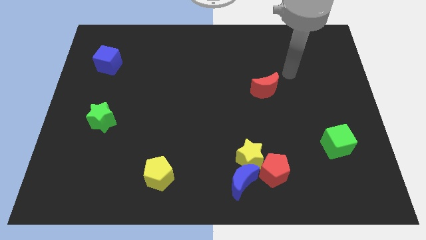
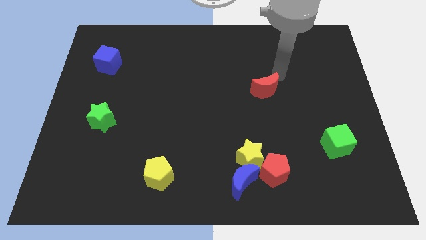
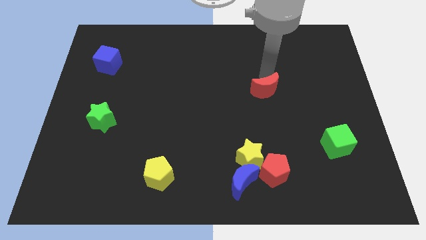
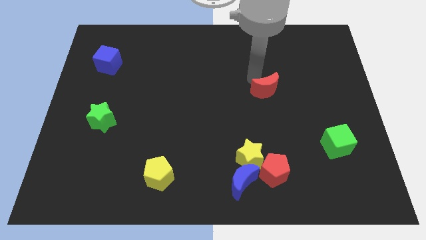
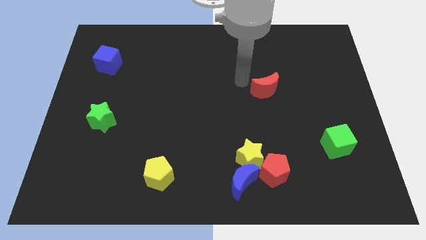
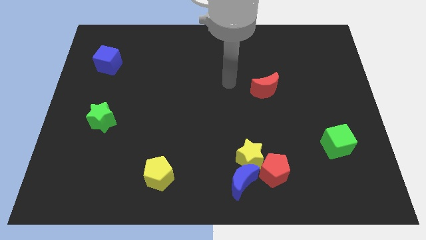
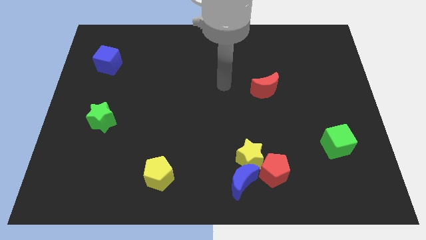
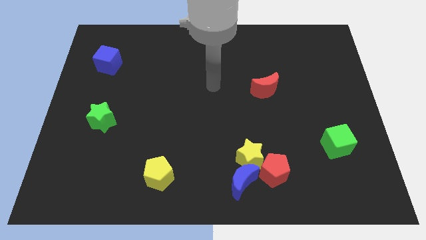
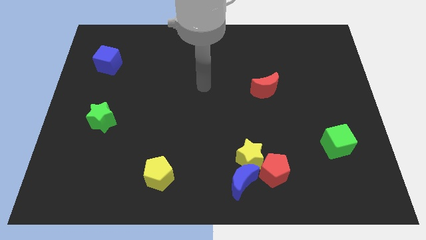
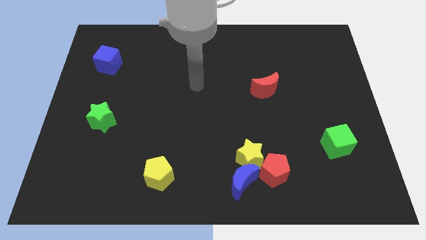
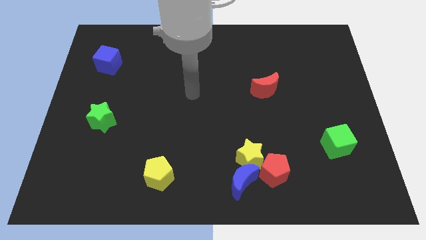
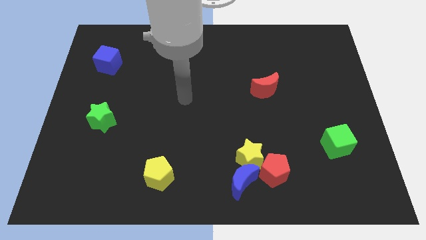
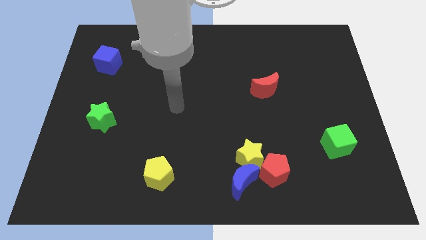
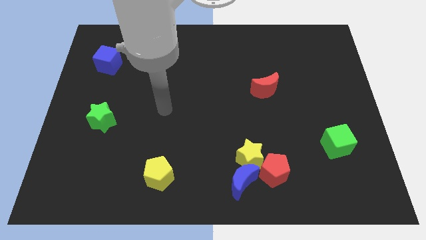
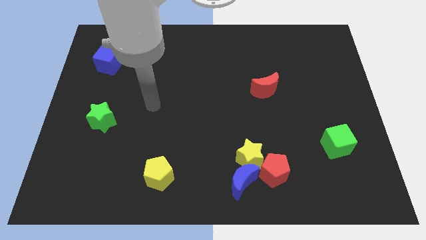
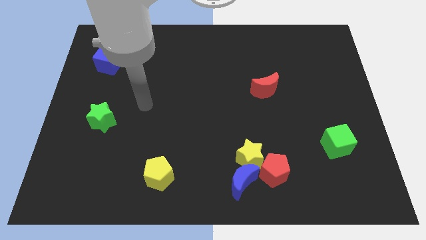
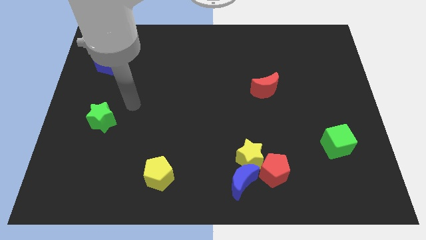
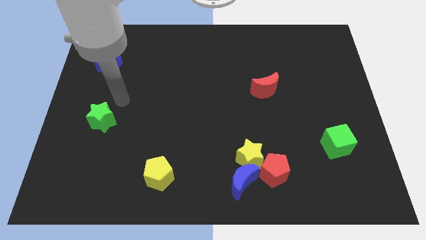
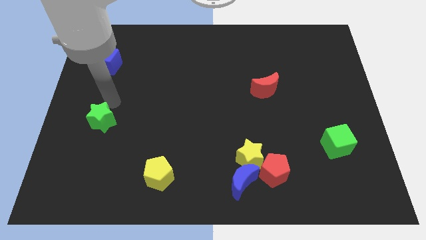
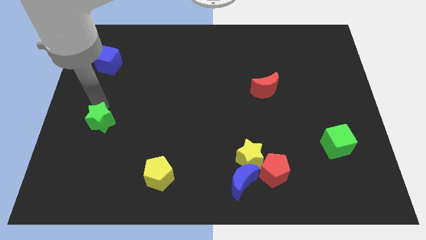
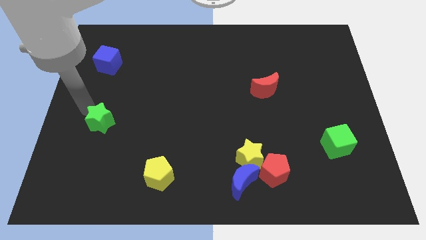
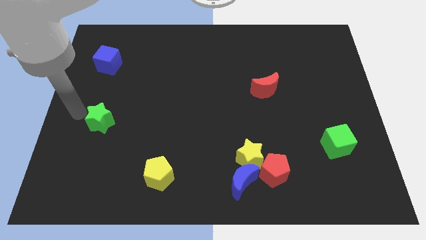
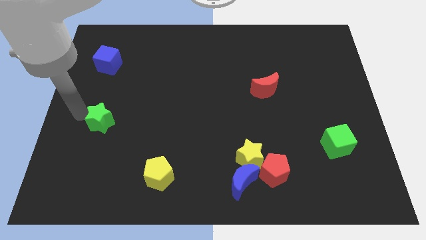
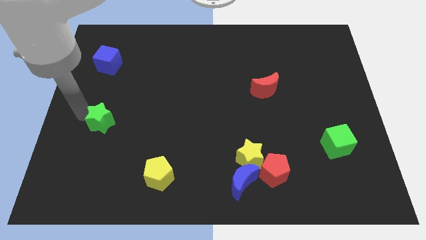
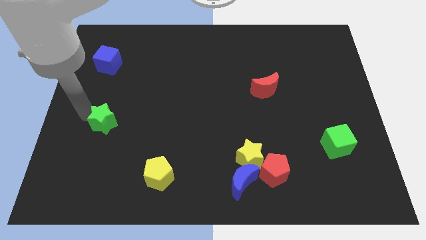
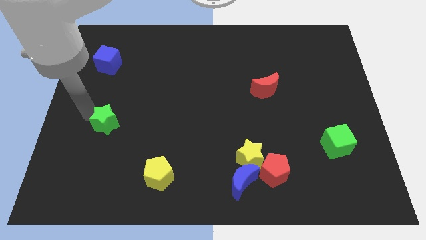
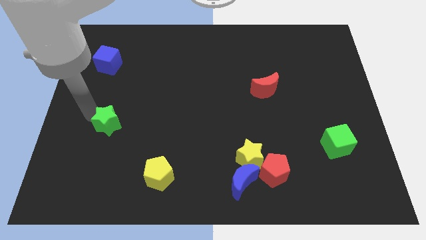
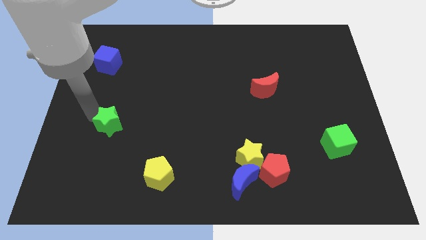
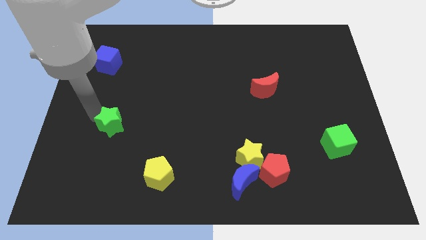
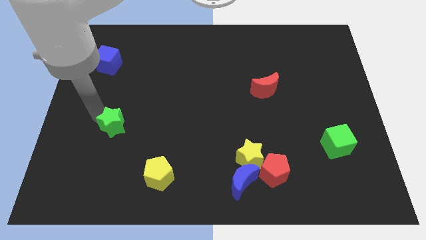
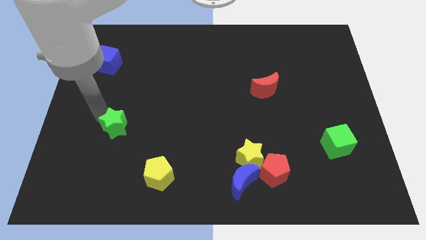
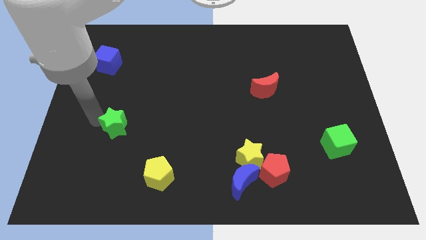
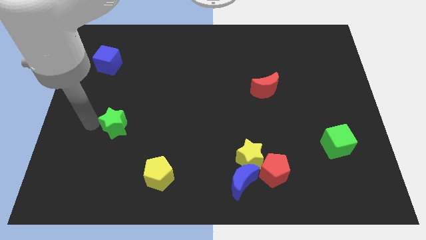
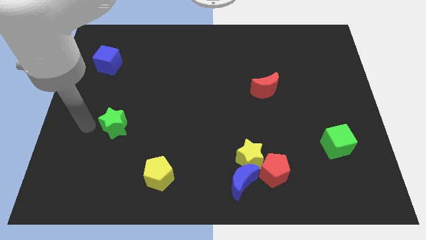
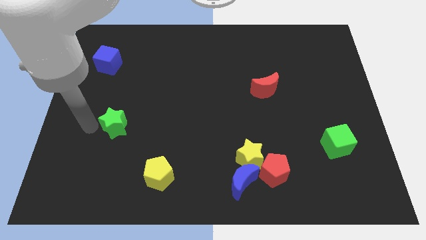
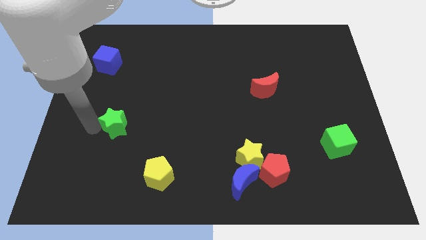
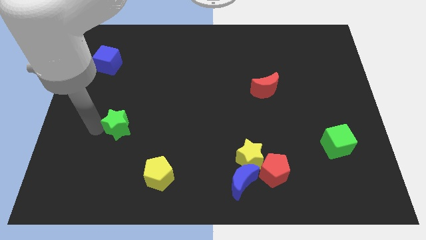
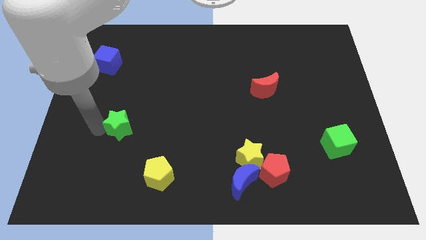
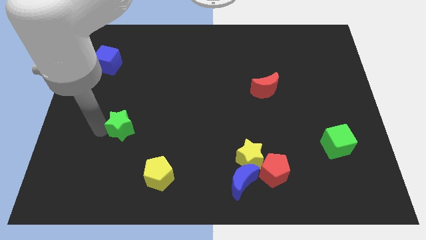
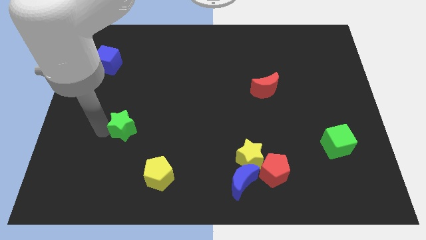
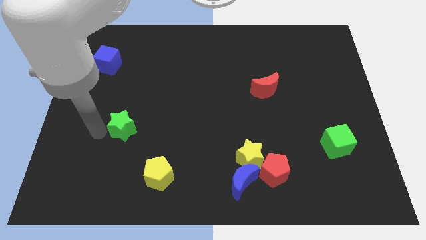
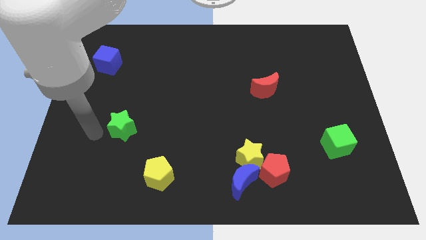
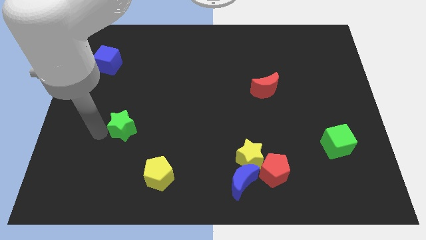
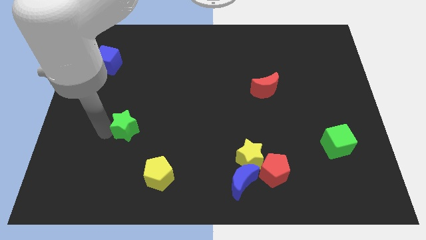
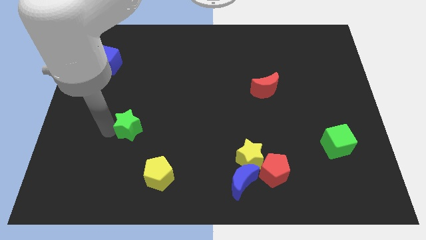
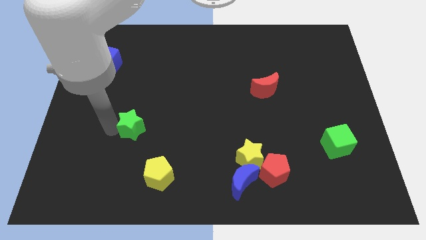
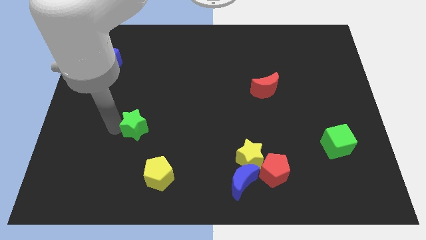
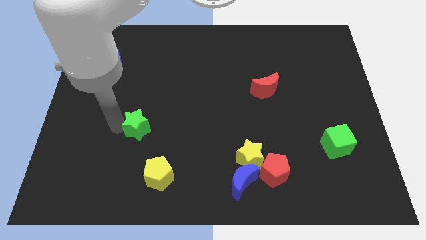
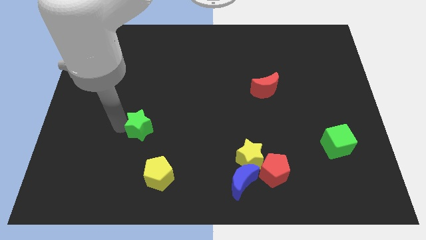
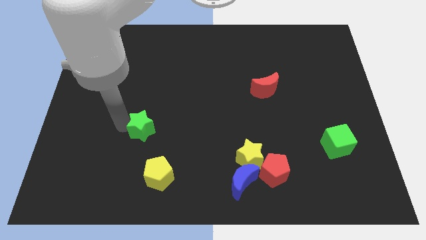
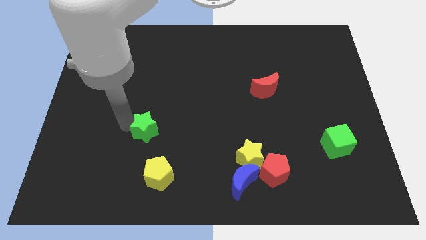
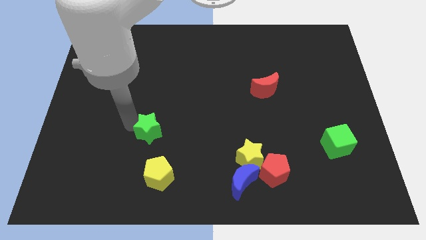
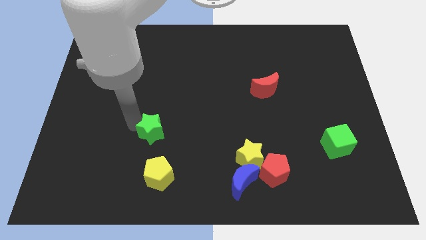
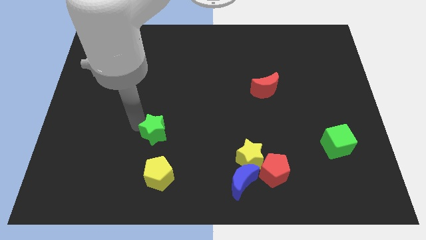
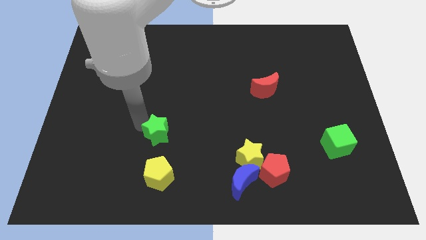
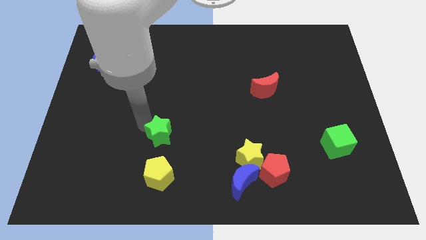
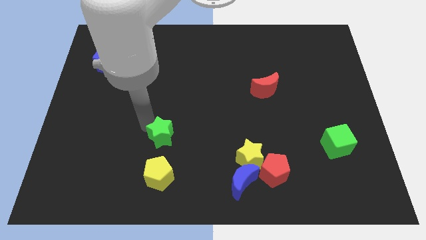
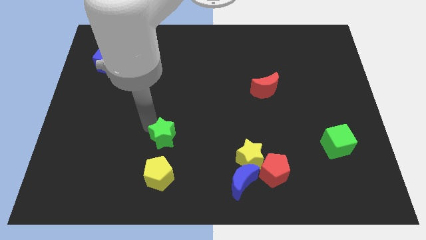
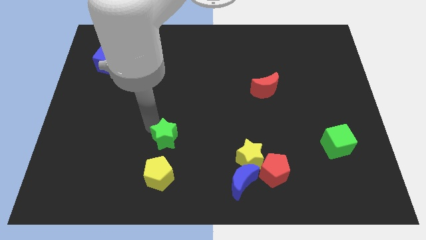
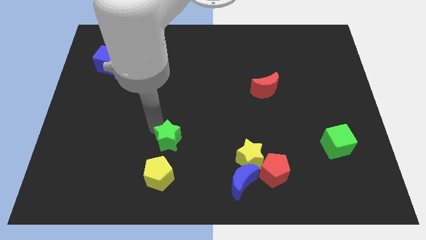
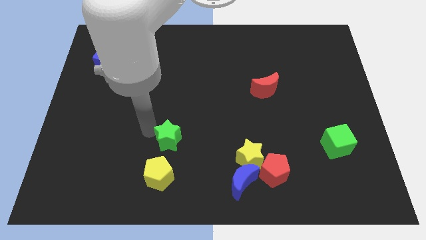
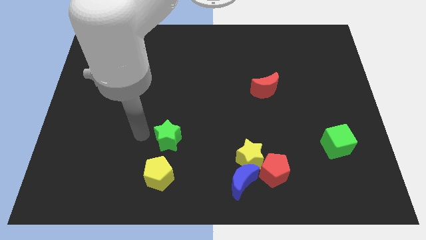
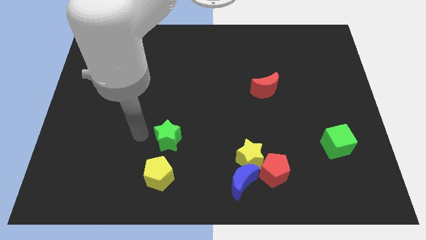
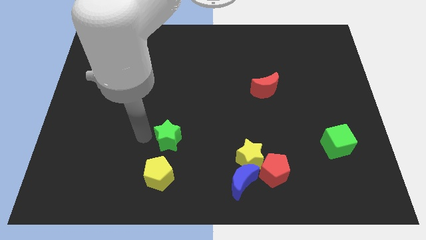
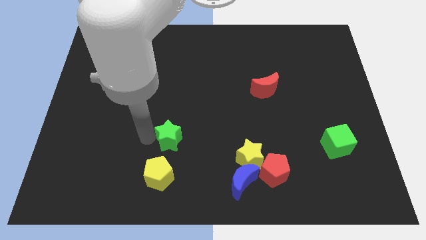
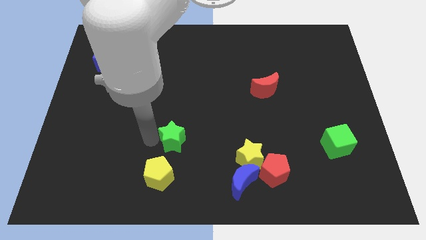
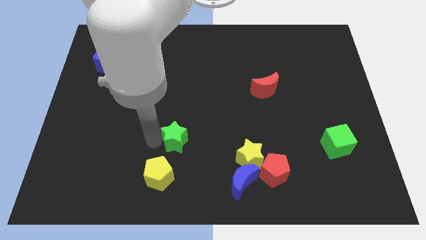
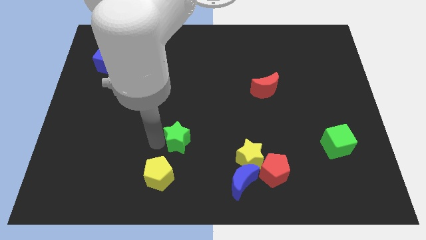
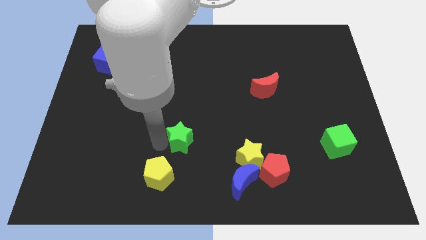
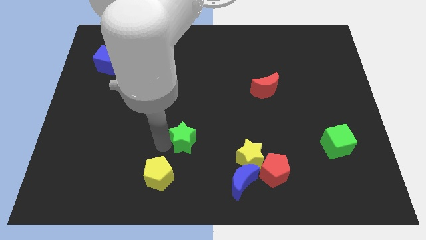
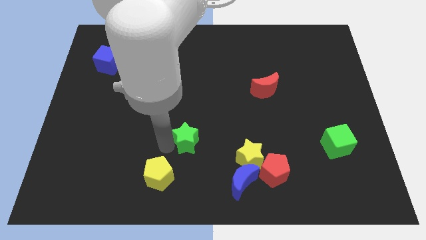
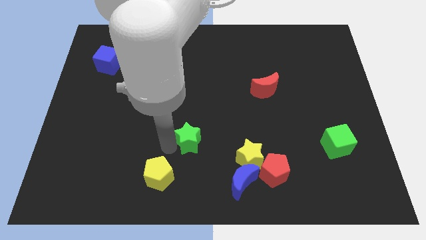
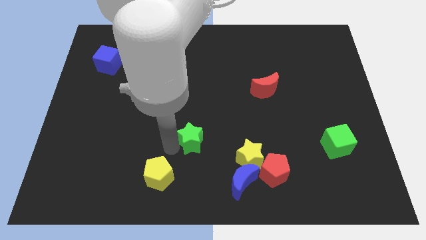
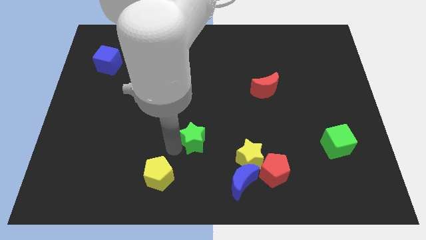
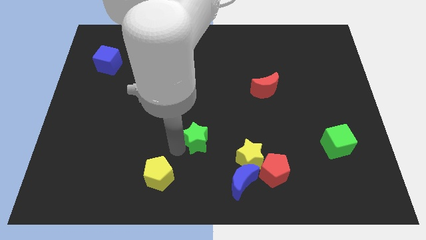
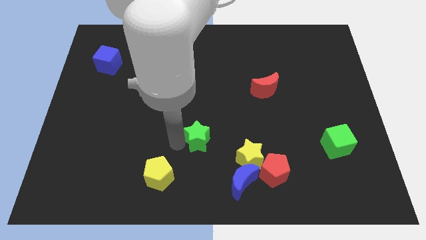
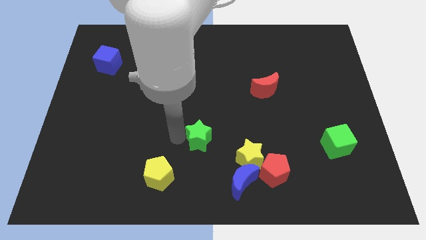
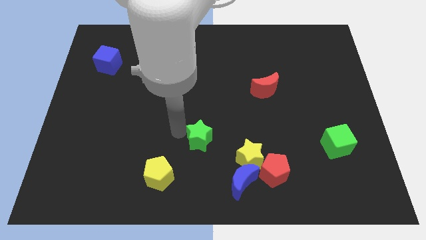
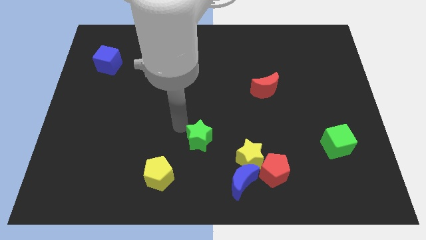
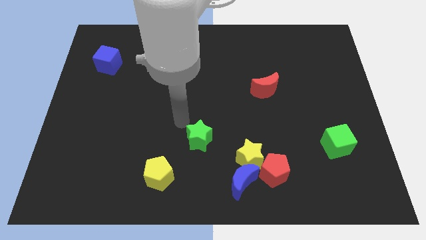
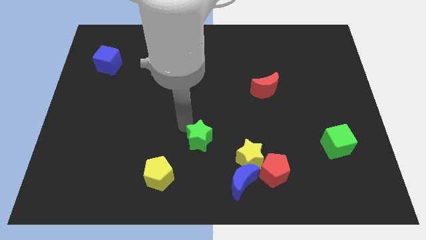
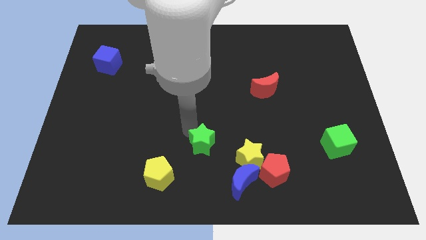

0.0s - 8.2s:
move the green star diagonally up and to the left of the blue moon
